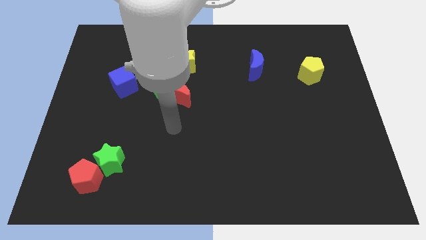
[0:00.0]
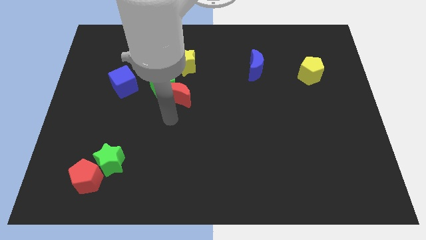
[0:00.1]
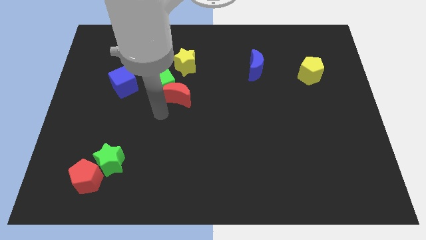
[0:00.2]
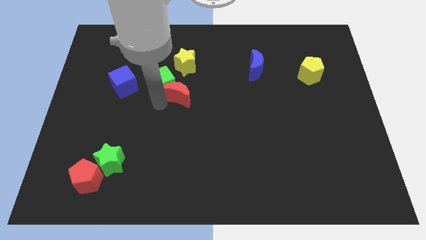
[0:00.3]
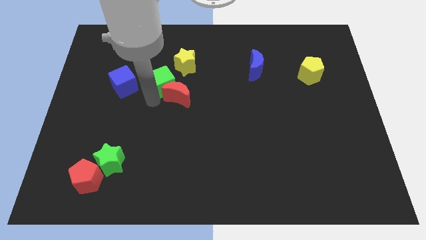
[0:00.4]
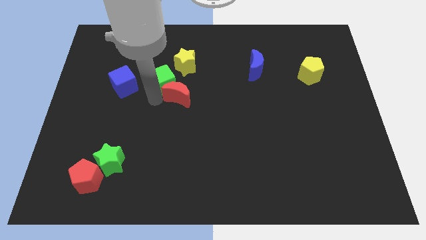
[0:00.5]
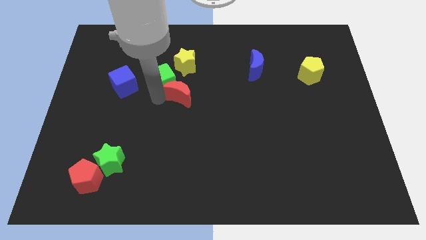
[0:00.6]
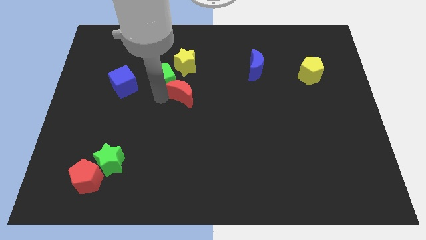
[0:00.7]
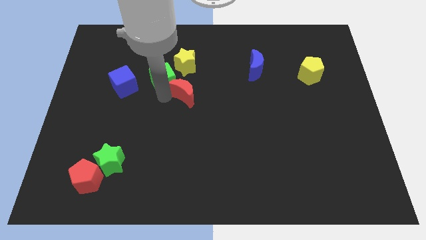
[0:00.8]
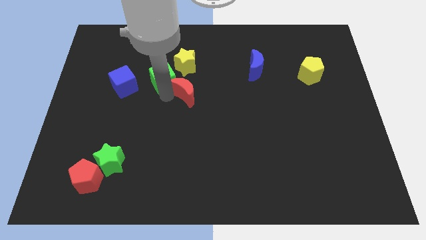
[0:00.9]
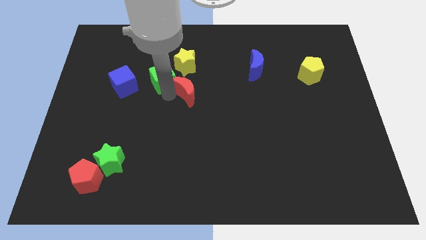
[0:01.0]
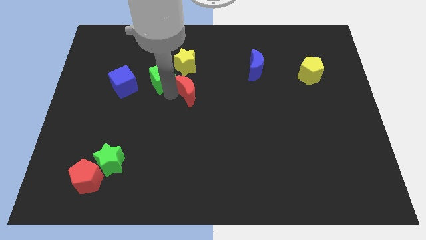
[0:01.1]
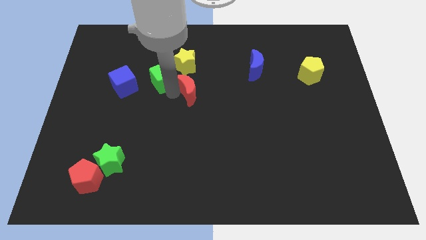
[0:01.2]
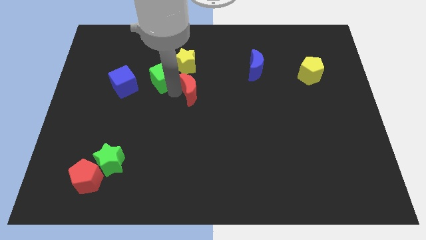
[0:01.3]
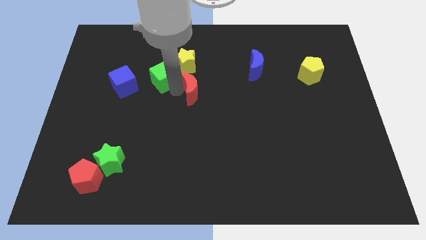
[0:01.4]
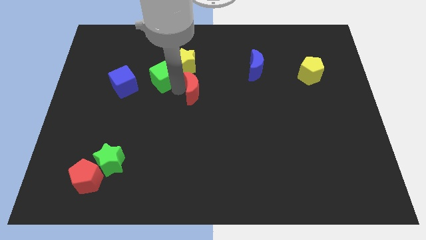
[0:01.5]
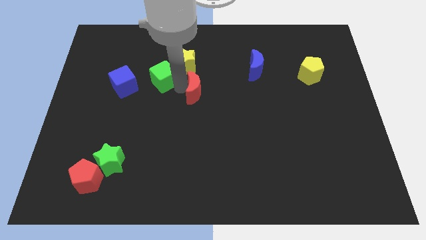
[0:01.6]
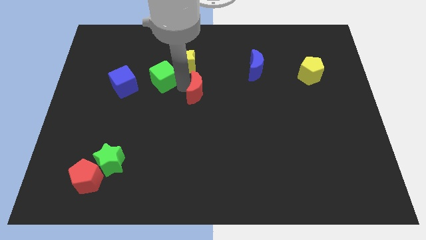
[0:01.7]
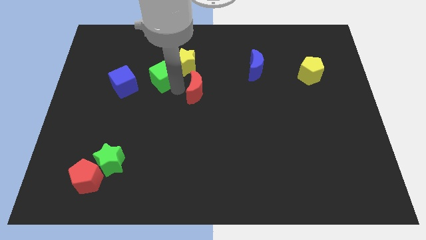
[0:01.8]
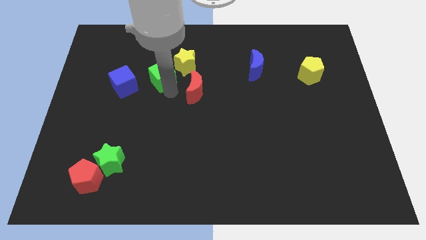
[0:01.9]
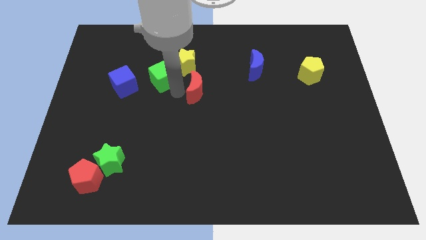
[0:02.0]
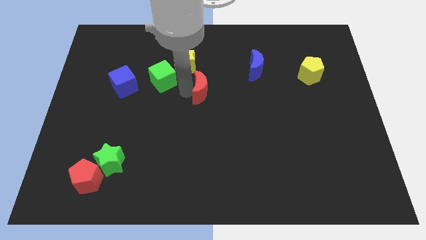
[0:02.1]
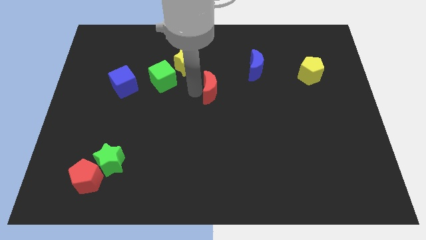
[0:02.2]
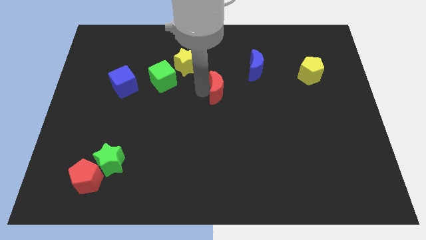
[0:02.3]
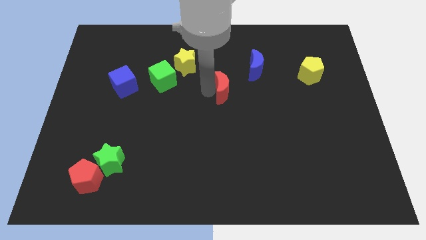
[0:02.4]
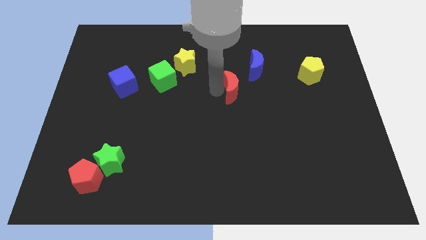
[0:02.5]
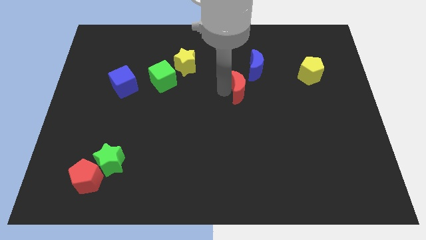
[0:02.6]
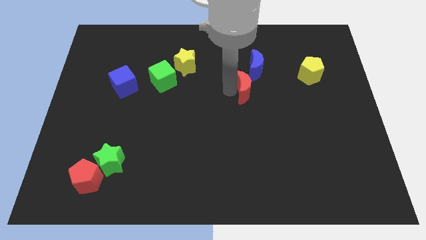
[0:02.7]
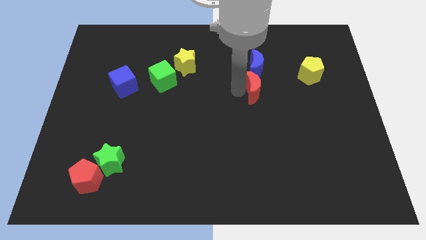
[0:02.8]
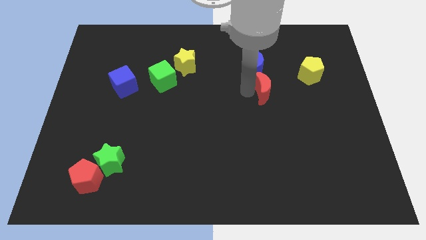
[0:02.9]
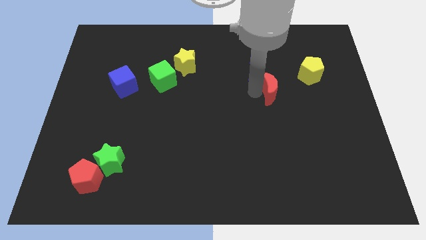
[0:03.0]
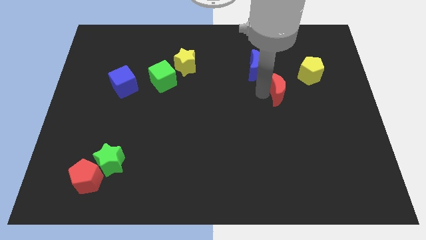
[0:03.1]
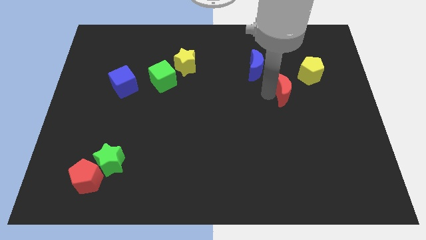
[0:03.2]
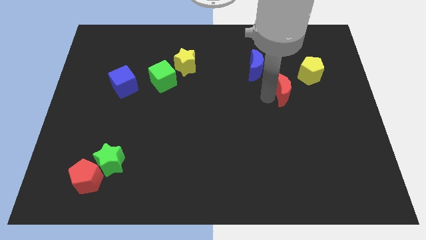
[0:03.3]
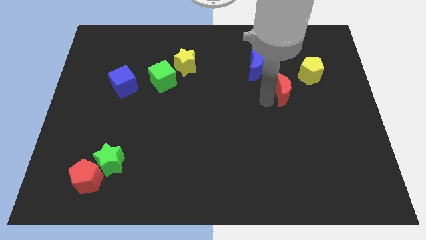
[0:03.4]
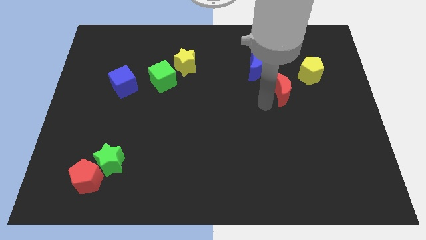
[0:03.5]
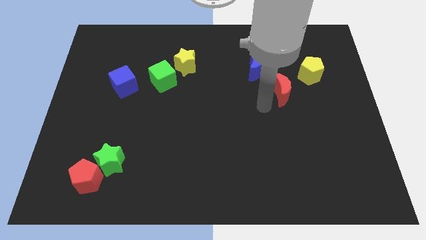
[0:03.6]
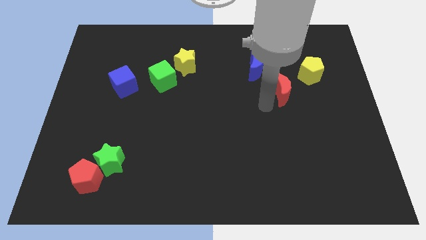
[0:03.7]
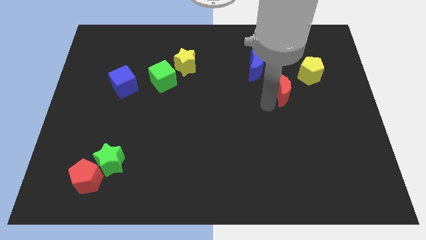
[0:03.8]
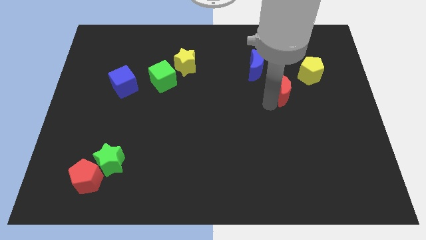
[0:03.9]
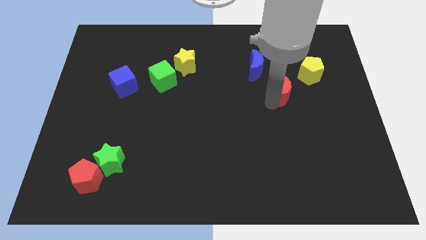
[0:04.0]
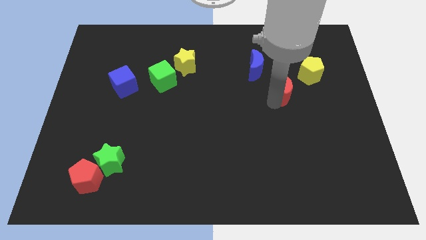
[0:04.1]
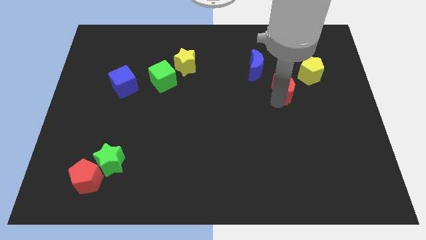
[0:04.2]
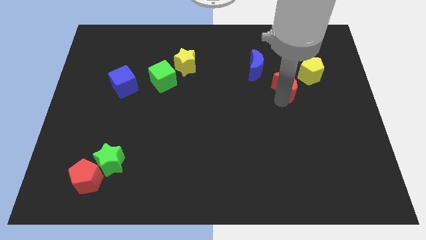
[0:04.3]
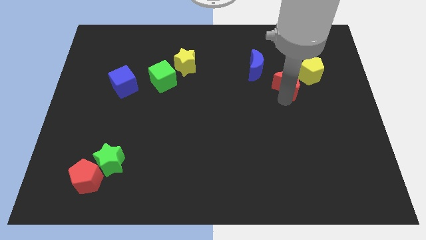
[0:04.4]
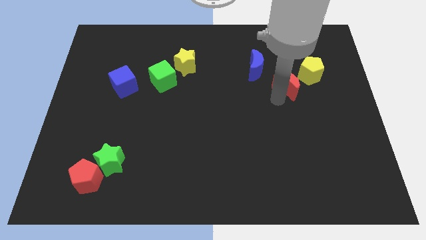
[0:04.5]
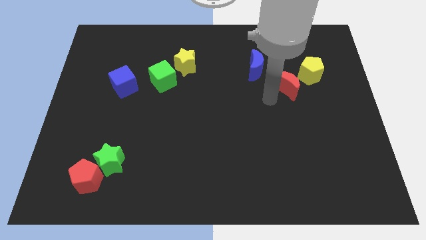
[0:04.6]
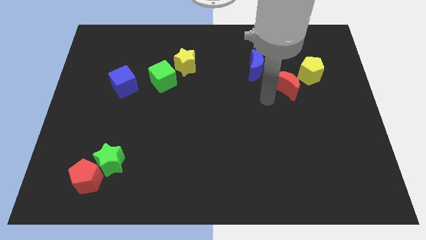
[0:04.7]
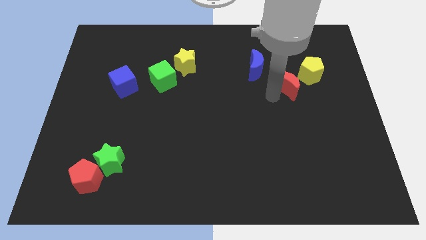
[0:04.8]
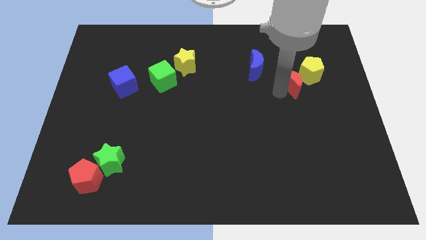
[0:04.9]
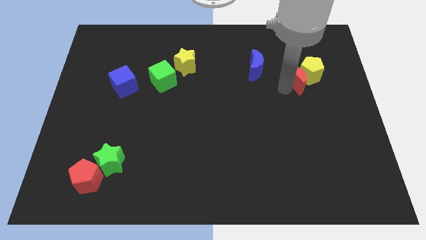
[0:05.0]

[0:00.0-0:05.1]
put the red moon close to the yellow pentagon

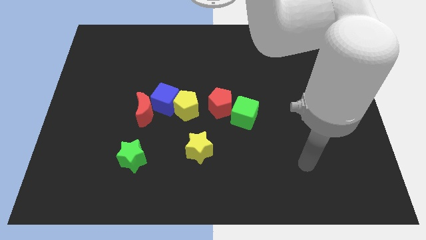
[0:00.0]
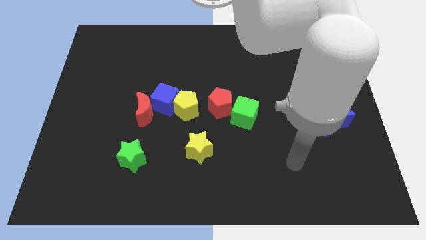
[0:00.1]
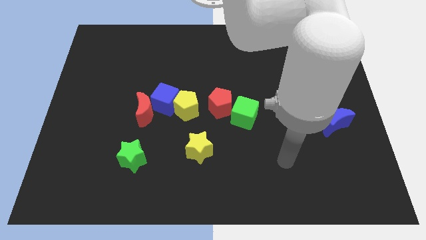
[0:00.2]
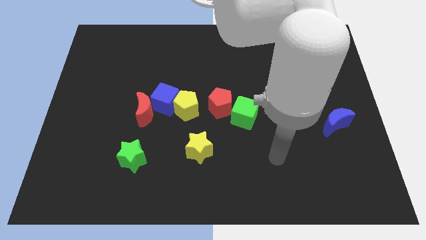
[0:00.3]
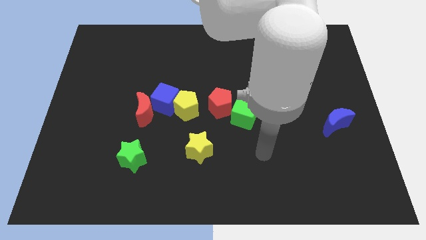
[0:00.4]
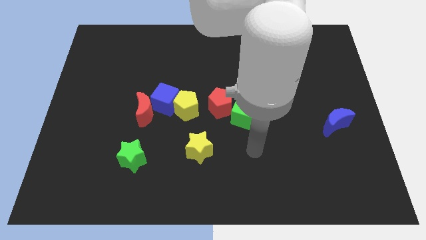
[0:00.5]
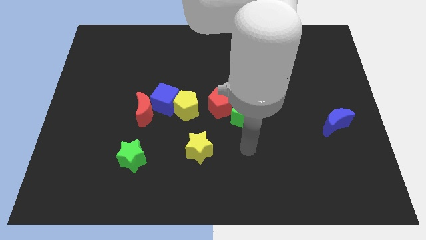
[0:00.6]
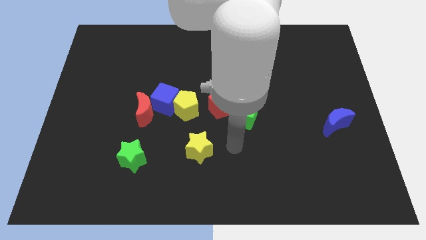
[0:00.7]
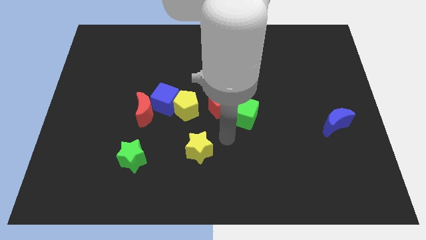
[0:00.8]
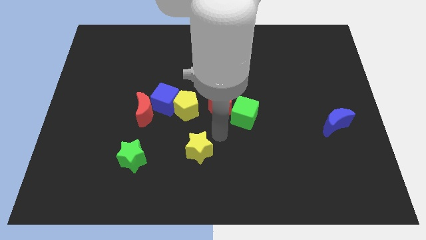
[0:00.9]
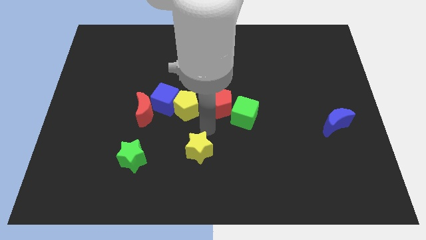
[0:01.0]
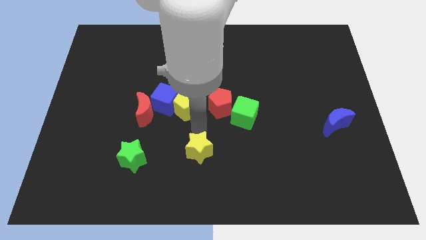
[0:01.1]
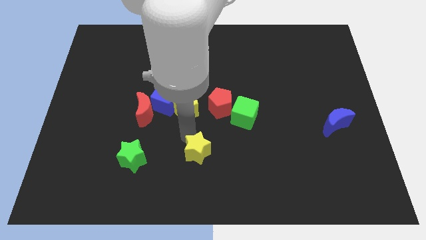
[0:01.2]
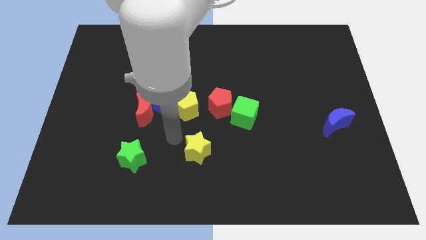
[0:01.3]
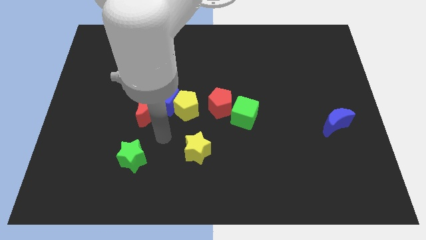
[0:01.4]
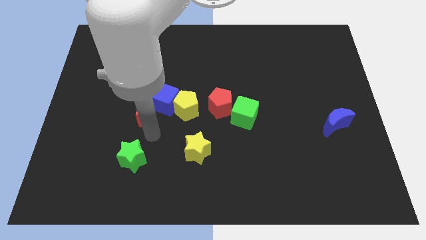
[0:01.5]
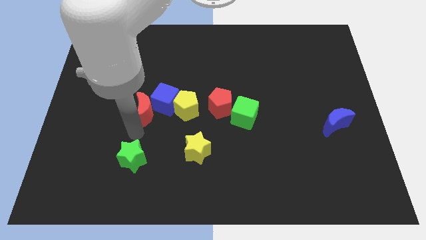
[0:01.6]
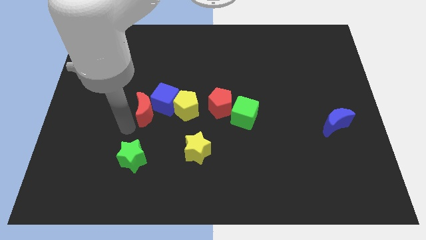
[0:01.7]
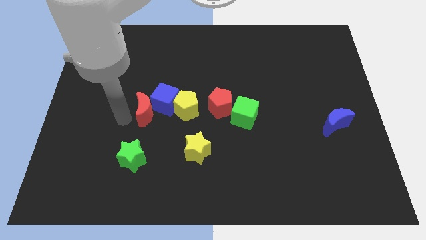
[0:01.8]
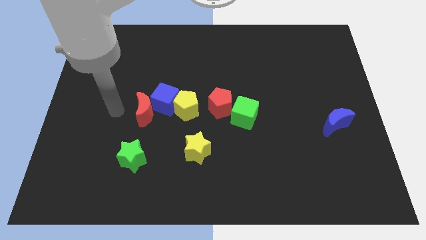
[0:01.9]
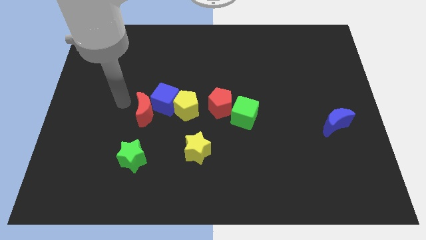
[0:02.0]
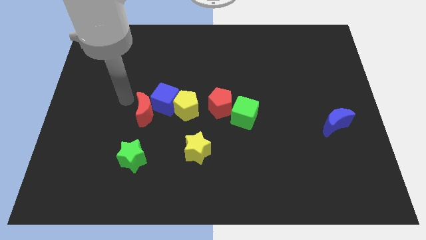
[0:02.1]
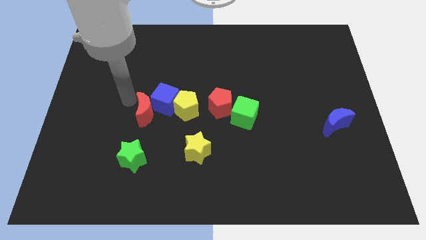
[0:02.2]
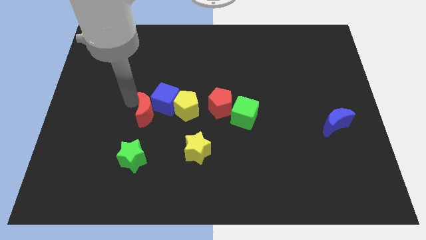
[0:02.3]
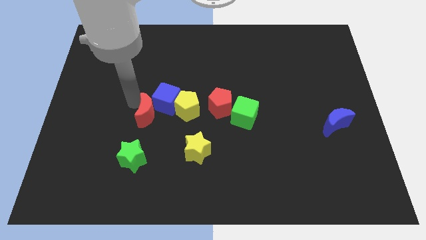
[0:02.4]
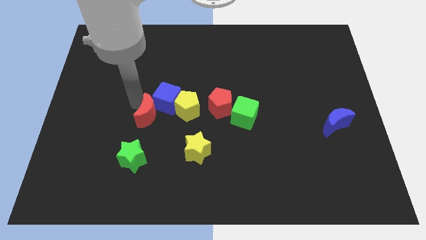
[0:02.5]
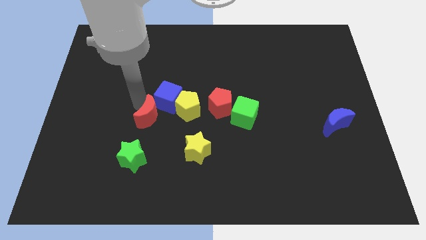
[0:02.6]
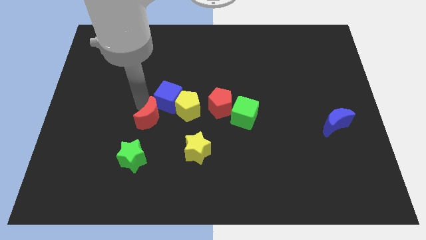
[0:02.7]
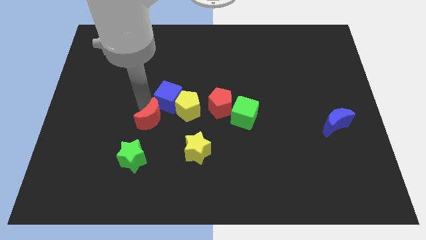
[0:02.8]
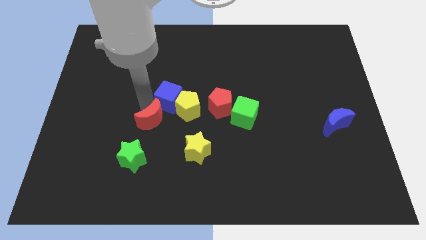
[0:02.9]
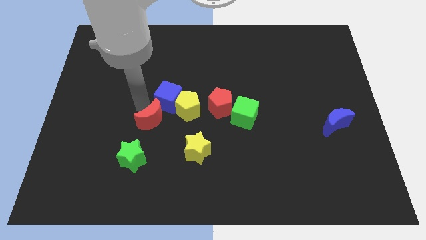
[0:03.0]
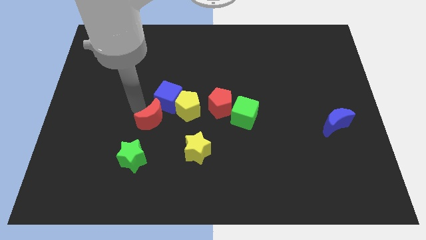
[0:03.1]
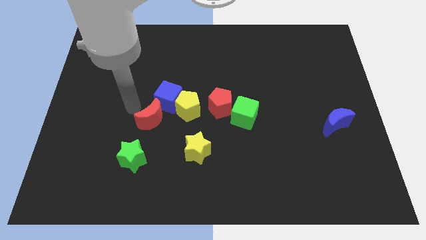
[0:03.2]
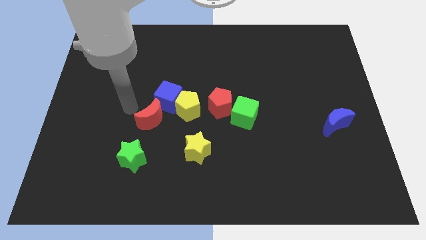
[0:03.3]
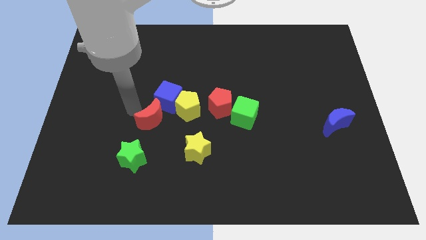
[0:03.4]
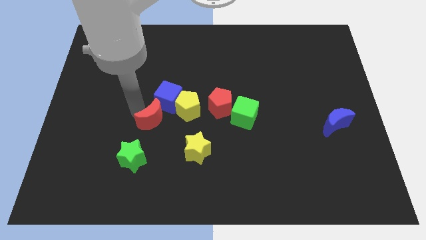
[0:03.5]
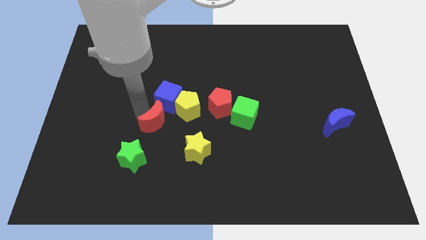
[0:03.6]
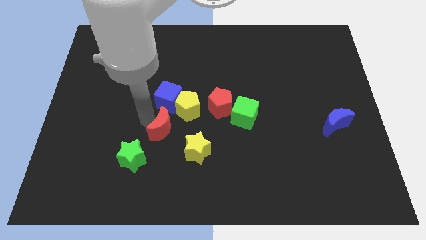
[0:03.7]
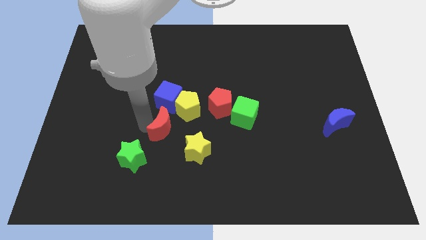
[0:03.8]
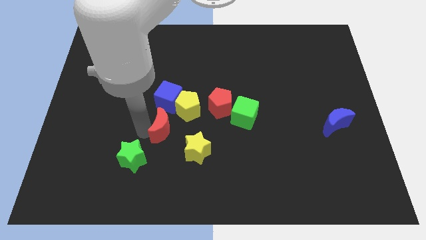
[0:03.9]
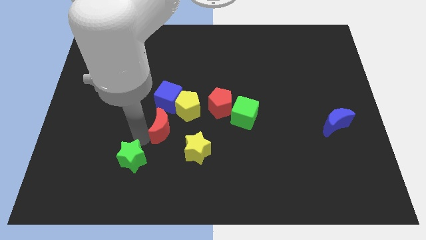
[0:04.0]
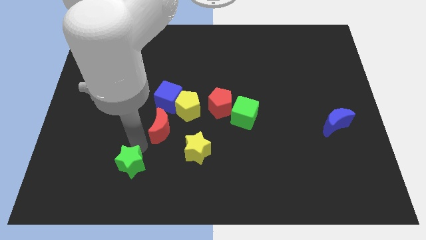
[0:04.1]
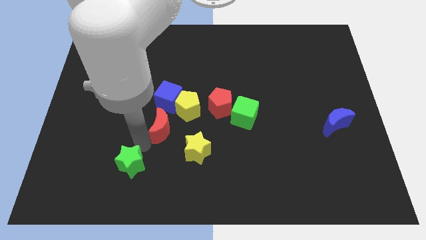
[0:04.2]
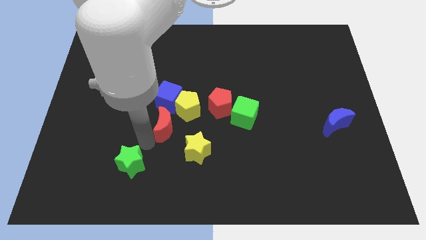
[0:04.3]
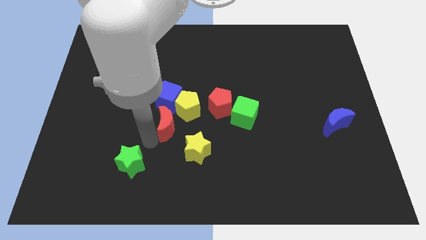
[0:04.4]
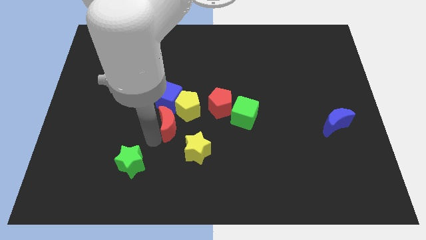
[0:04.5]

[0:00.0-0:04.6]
move the red moon to the yellow pentagon
